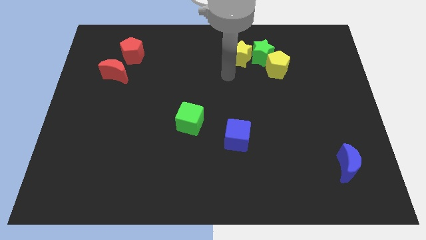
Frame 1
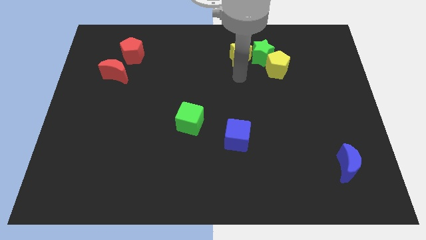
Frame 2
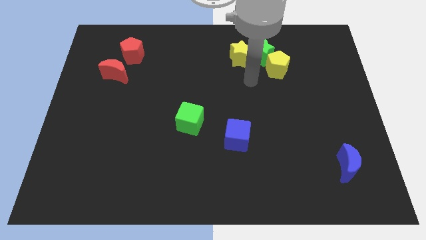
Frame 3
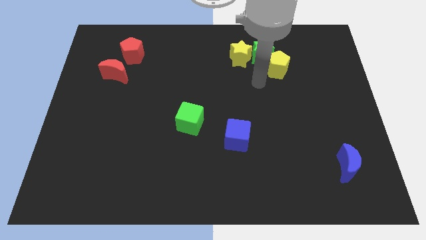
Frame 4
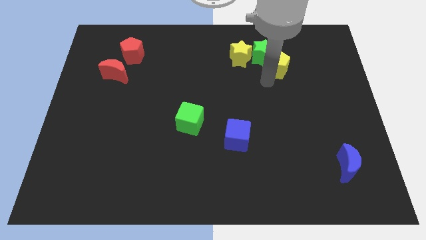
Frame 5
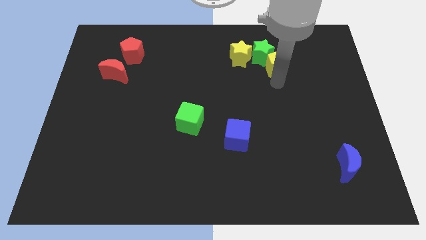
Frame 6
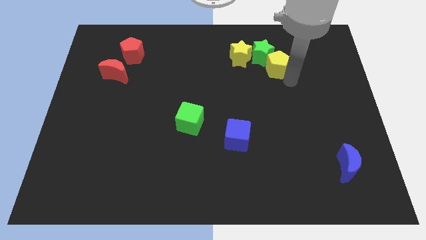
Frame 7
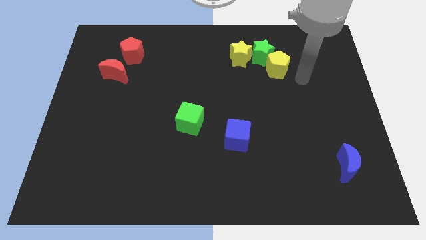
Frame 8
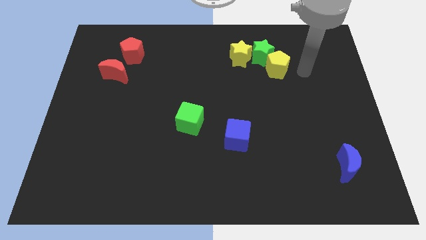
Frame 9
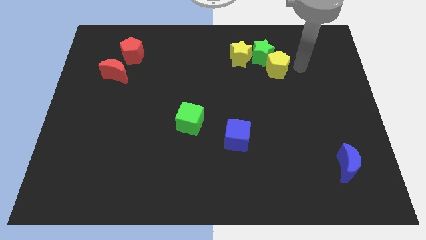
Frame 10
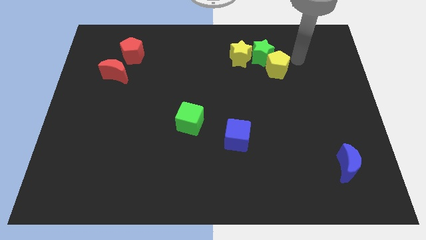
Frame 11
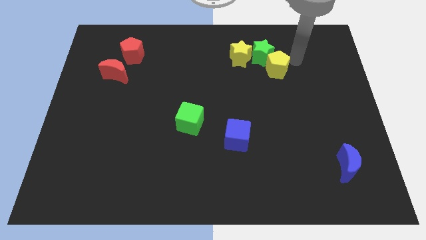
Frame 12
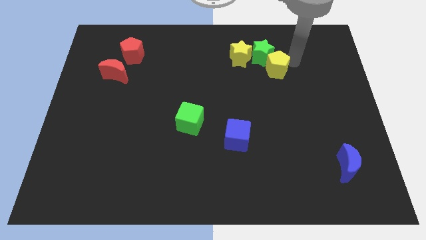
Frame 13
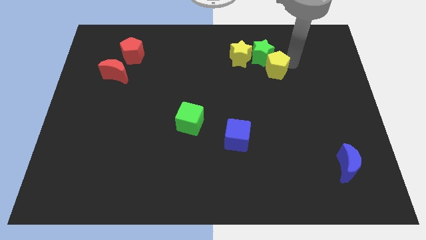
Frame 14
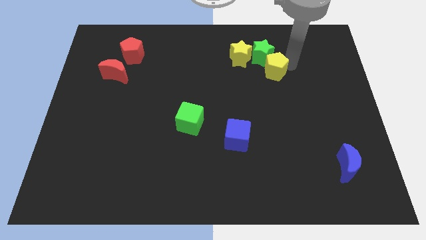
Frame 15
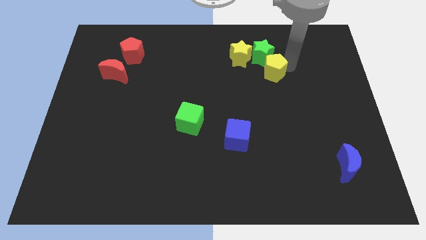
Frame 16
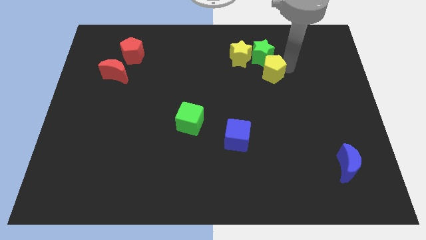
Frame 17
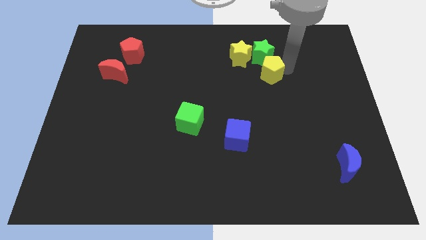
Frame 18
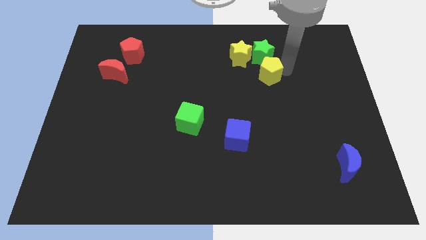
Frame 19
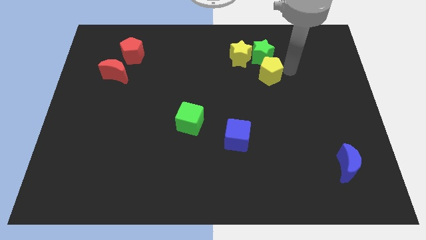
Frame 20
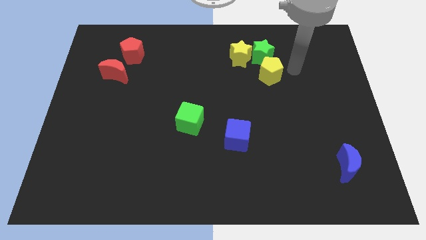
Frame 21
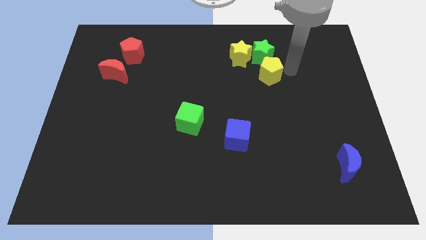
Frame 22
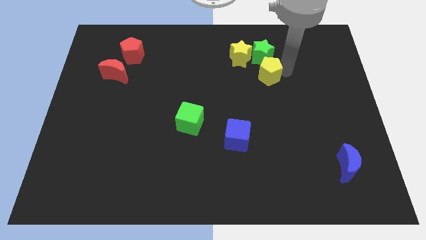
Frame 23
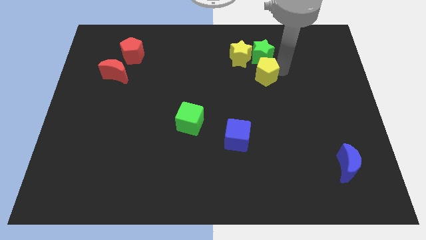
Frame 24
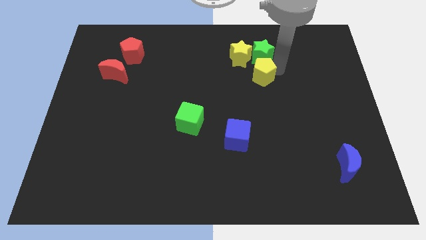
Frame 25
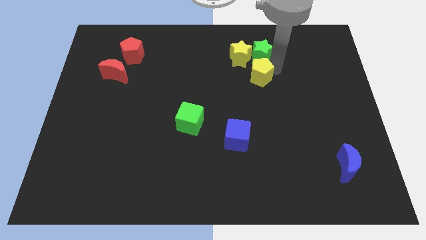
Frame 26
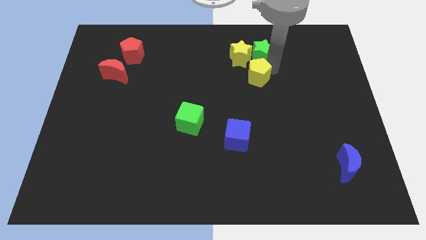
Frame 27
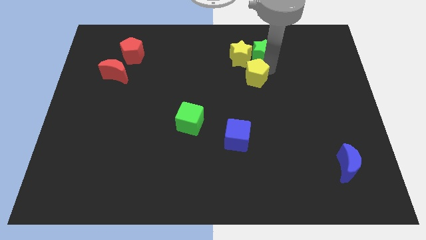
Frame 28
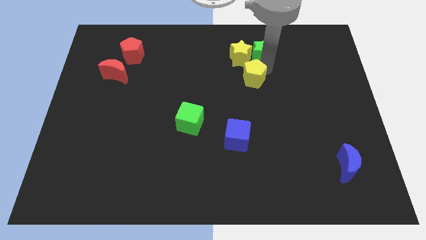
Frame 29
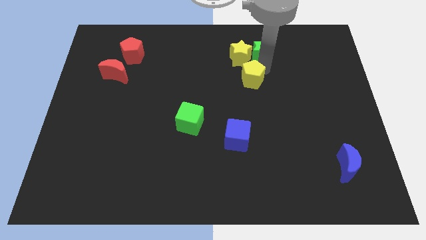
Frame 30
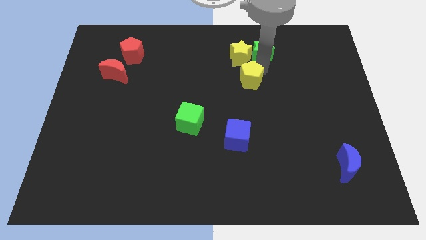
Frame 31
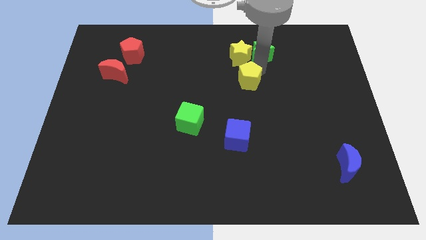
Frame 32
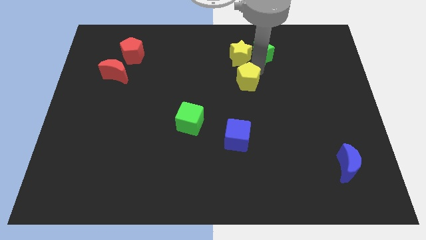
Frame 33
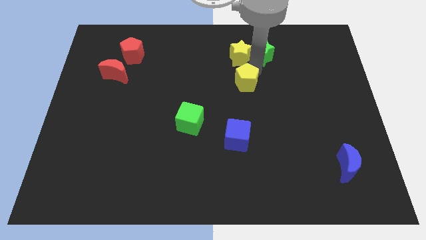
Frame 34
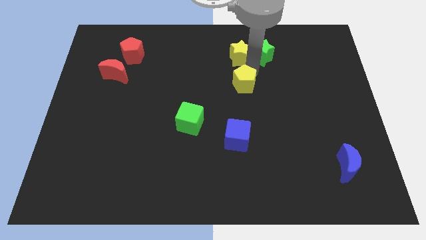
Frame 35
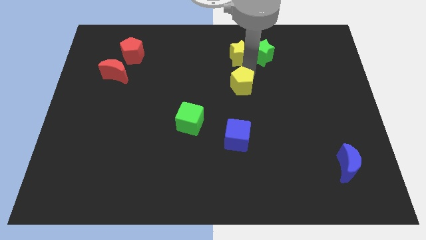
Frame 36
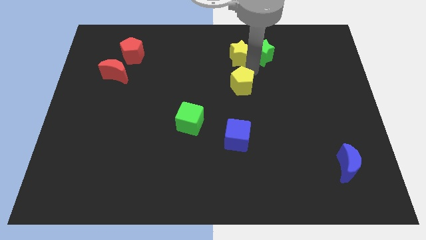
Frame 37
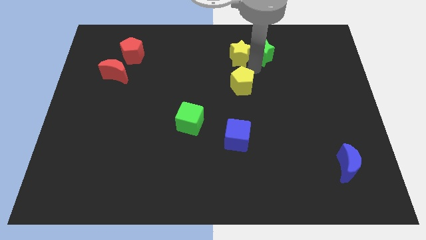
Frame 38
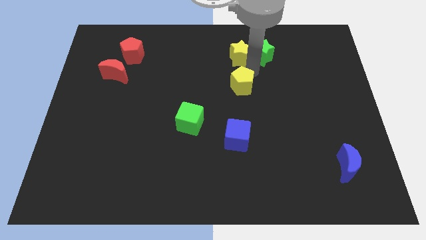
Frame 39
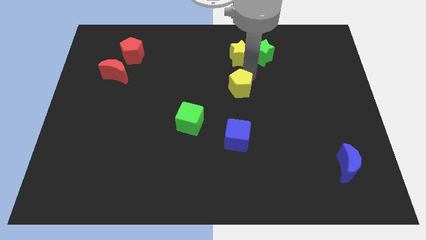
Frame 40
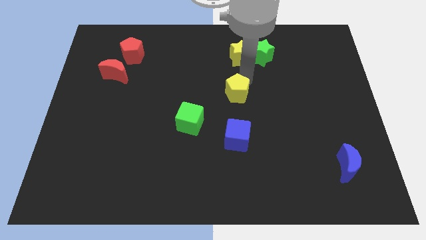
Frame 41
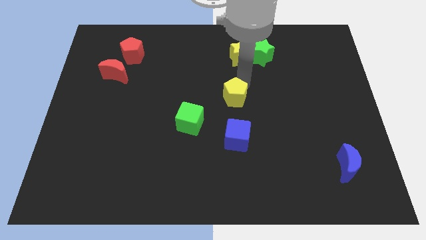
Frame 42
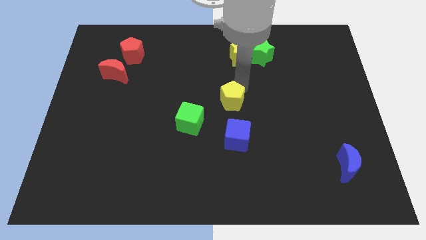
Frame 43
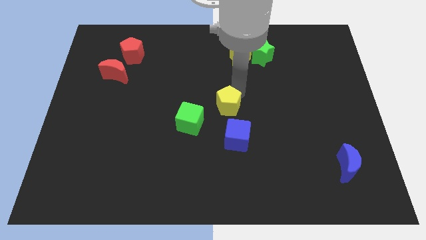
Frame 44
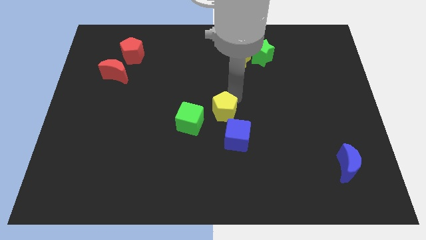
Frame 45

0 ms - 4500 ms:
put the yellow pentagon to the top left of the blue cube

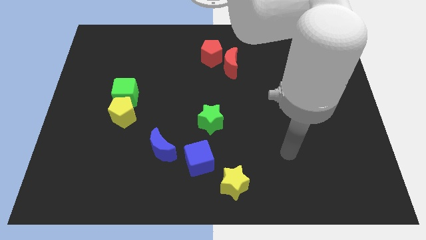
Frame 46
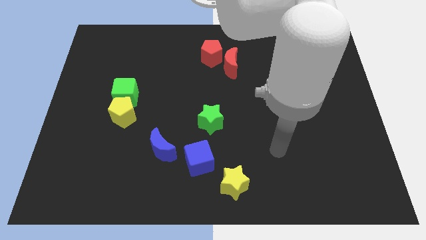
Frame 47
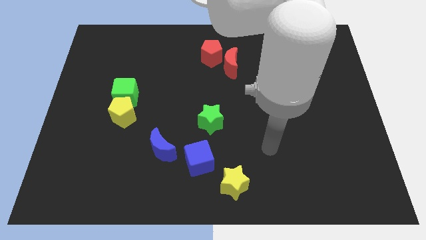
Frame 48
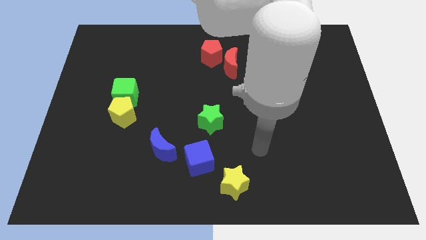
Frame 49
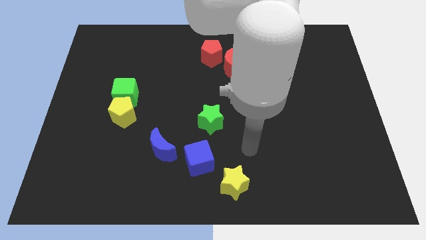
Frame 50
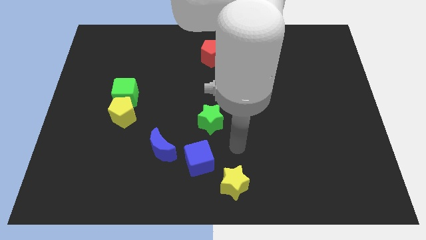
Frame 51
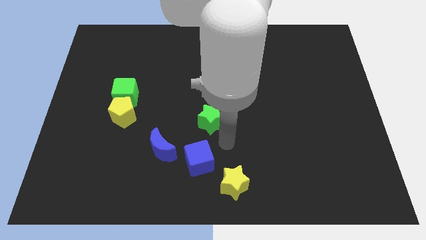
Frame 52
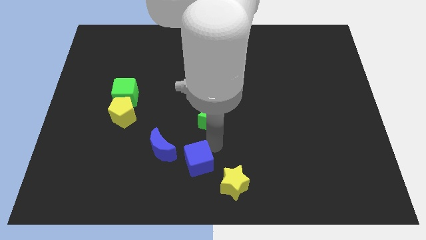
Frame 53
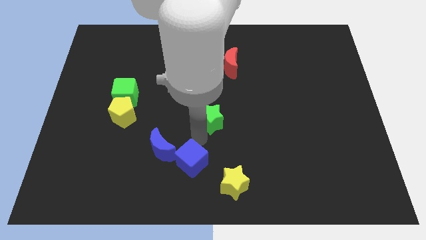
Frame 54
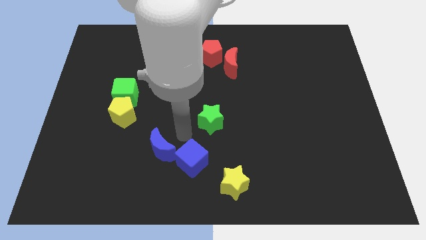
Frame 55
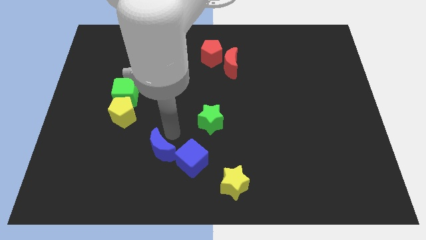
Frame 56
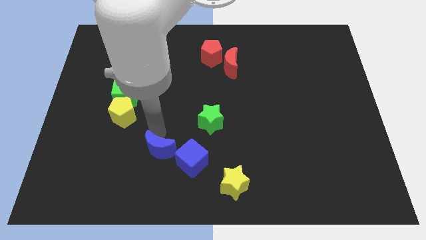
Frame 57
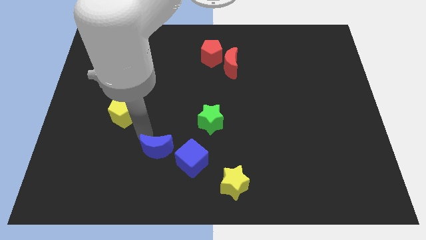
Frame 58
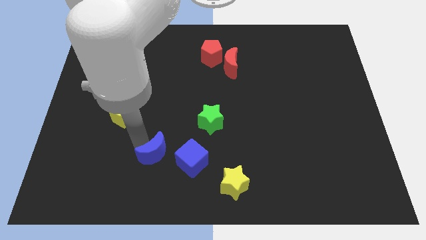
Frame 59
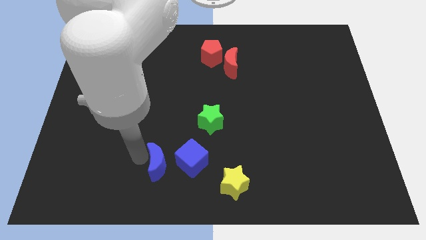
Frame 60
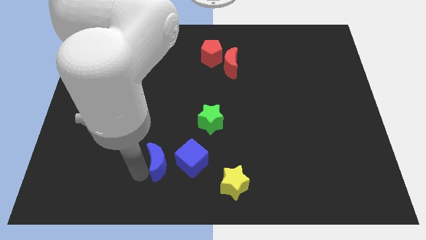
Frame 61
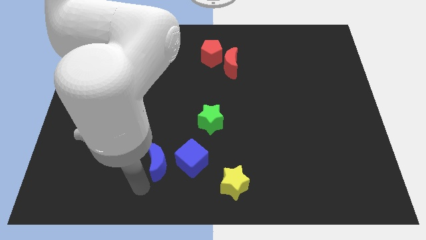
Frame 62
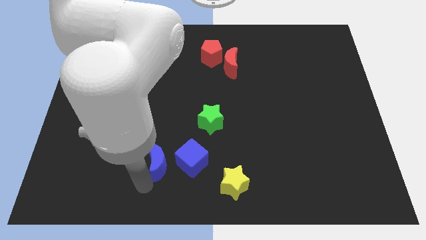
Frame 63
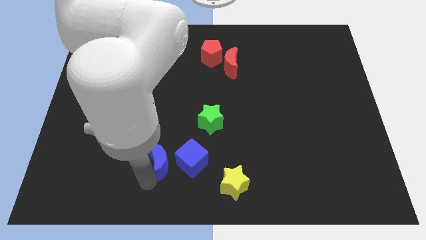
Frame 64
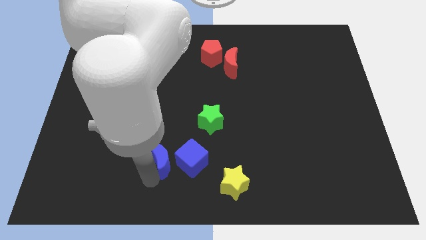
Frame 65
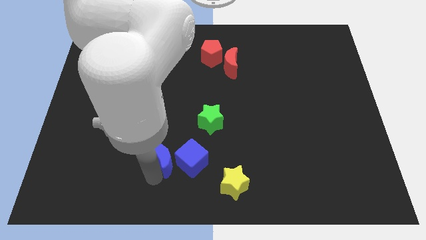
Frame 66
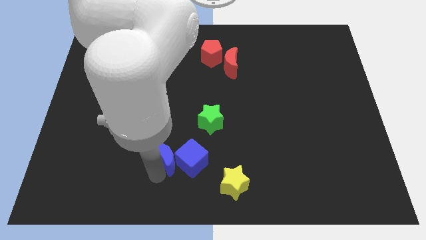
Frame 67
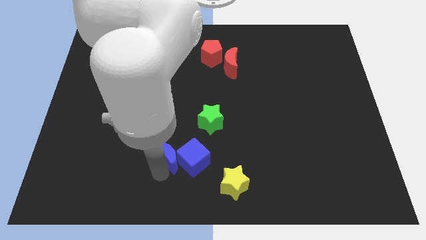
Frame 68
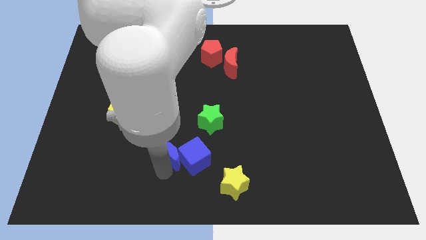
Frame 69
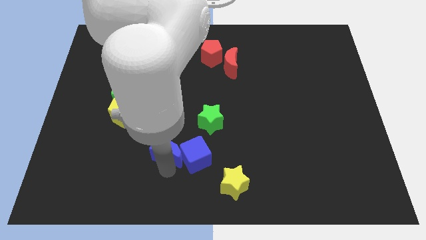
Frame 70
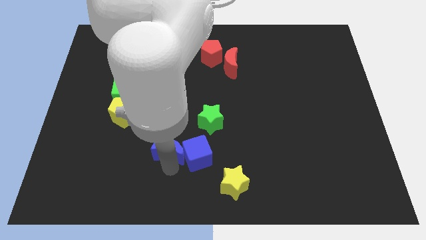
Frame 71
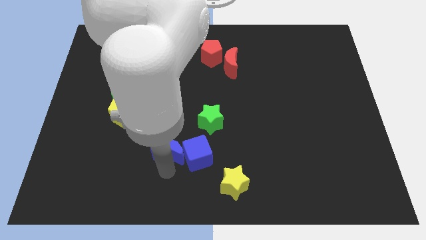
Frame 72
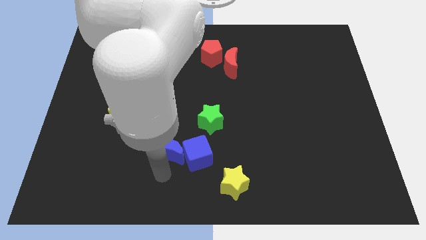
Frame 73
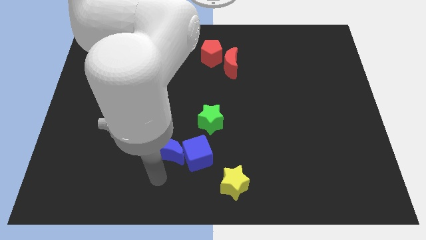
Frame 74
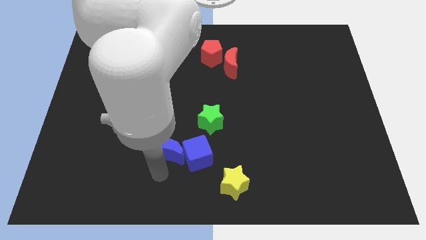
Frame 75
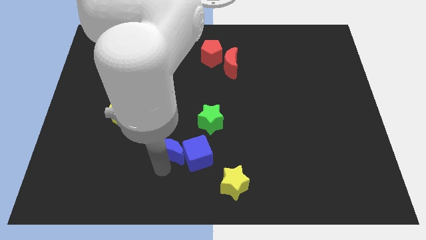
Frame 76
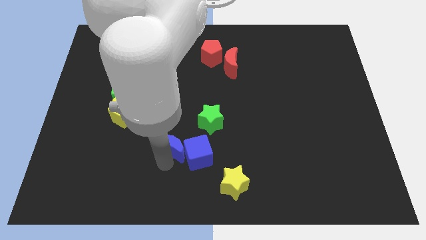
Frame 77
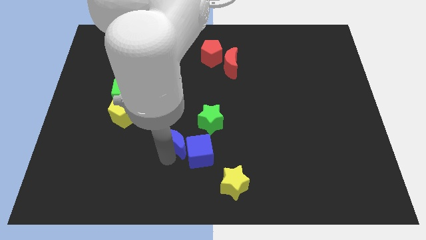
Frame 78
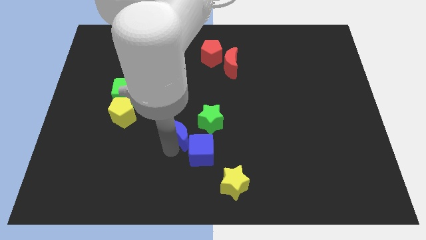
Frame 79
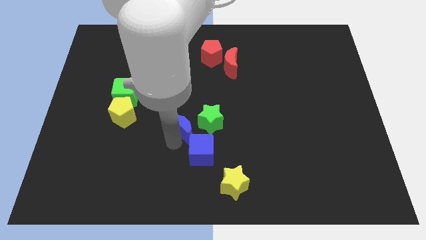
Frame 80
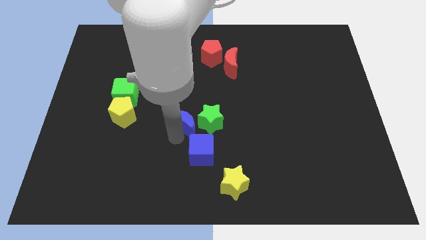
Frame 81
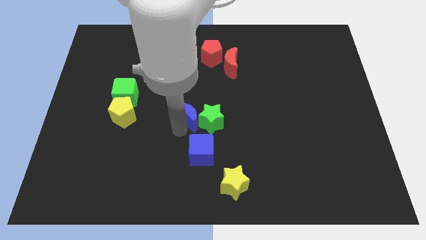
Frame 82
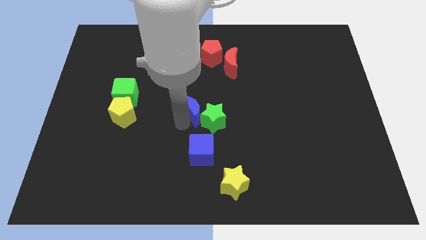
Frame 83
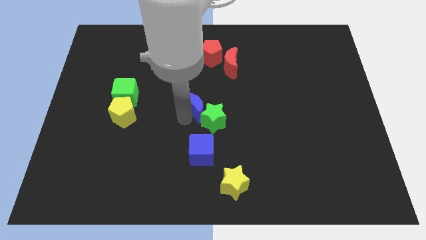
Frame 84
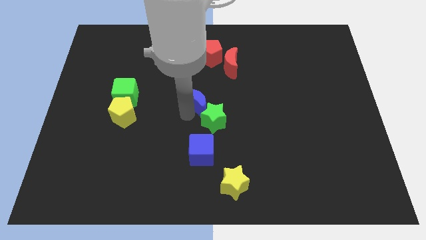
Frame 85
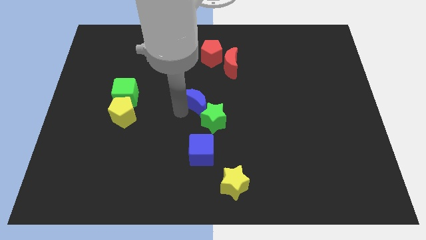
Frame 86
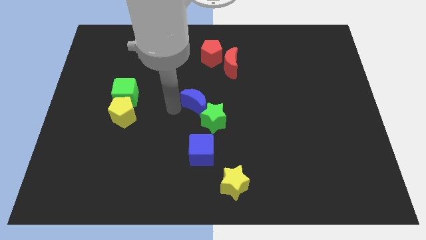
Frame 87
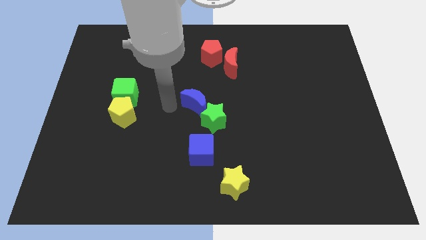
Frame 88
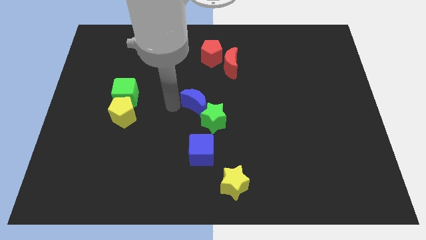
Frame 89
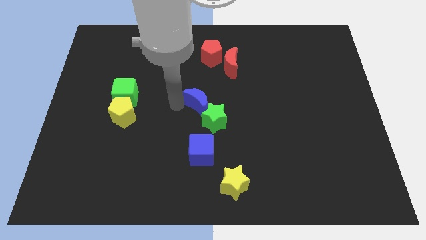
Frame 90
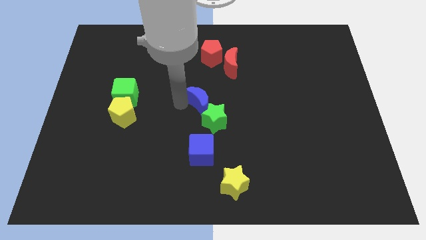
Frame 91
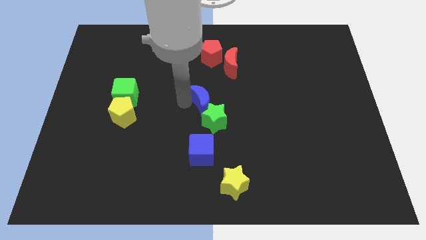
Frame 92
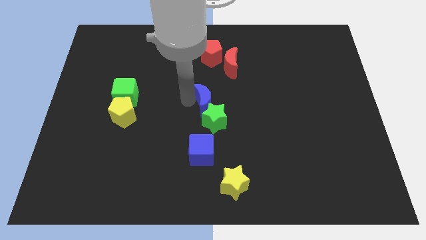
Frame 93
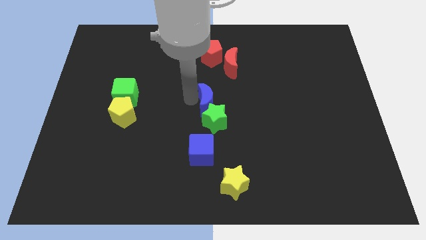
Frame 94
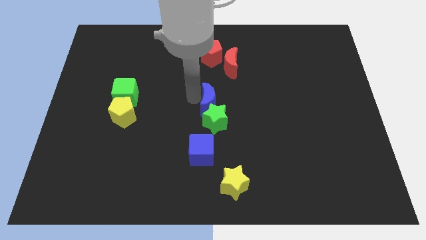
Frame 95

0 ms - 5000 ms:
move the blue moon to the top right of the green star
